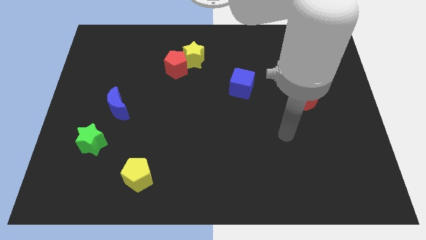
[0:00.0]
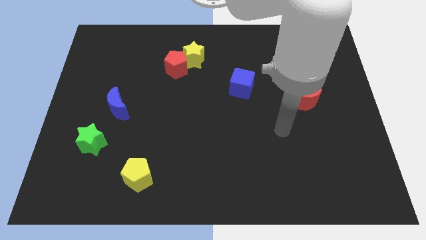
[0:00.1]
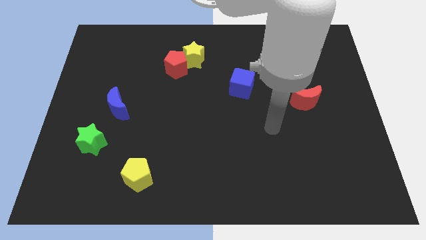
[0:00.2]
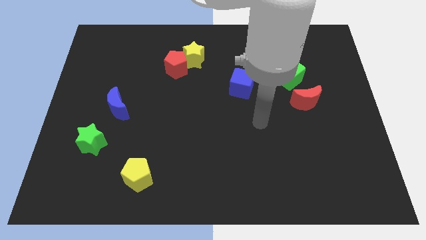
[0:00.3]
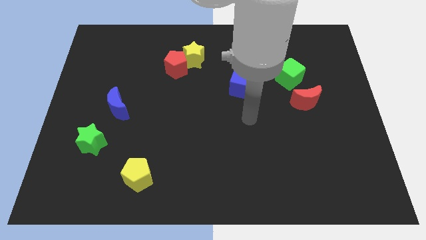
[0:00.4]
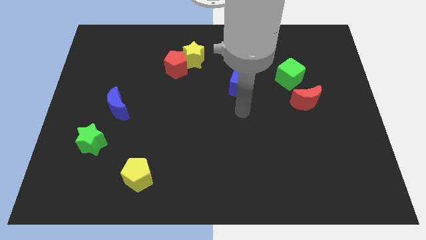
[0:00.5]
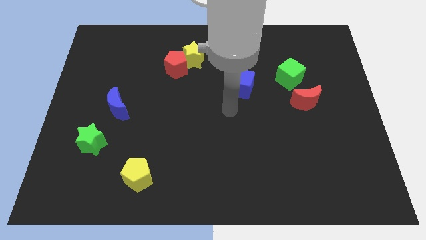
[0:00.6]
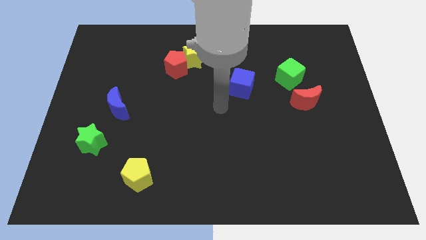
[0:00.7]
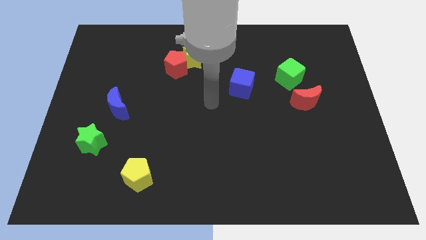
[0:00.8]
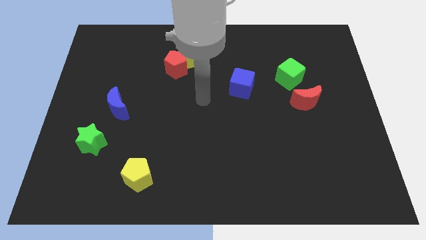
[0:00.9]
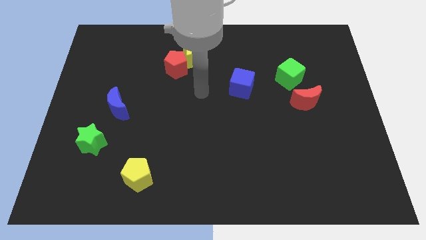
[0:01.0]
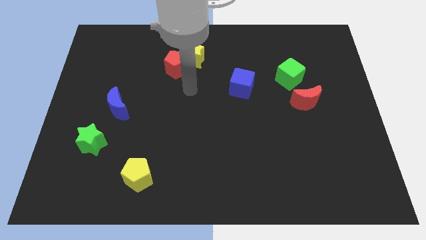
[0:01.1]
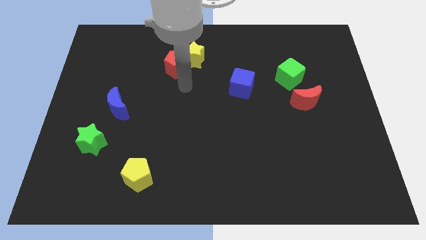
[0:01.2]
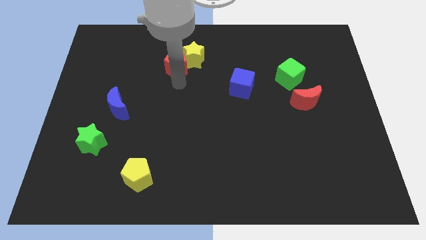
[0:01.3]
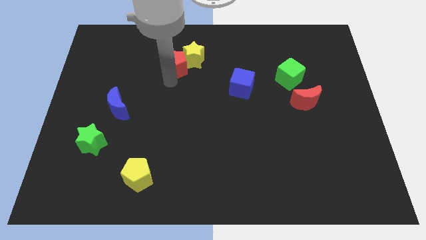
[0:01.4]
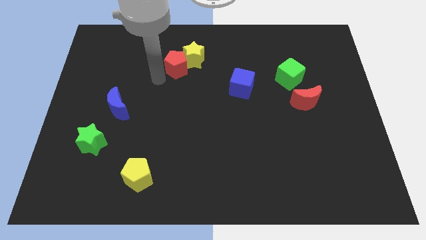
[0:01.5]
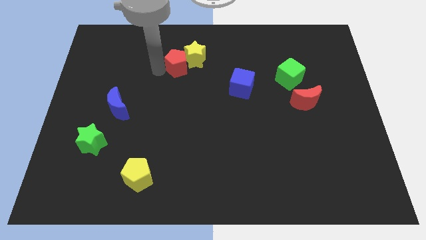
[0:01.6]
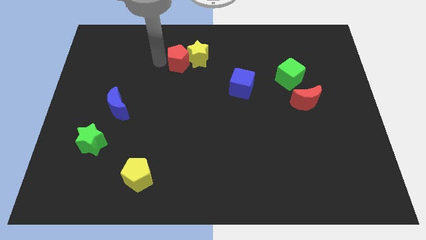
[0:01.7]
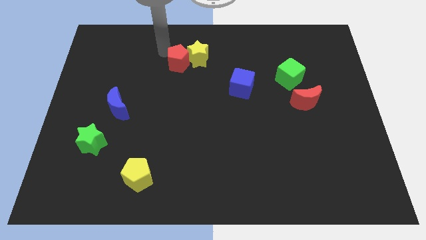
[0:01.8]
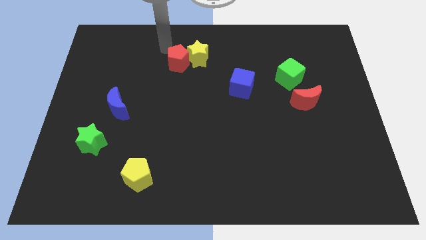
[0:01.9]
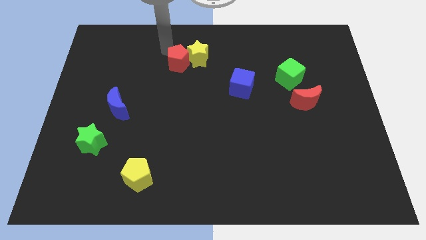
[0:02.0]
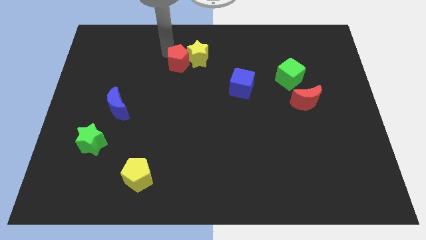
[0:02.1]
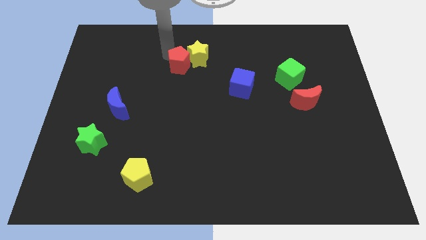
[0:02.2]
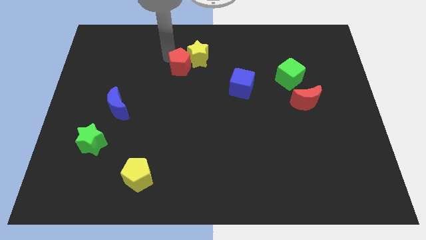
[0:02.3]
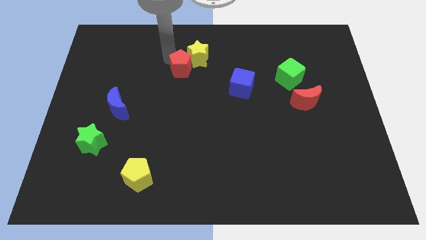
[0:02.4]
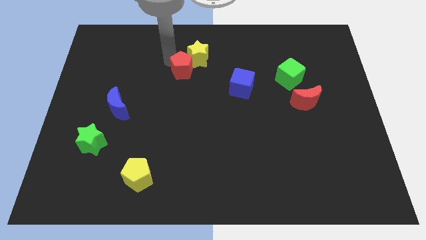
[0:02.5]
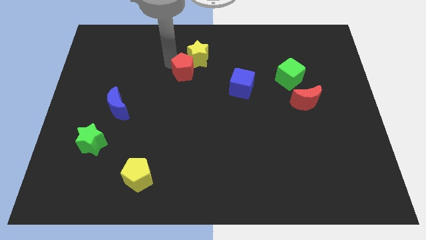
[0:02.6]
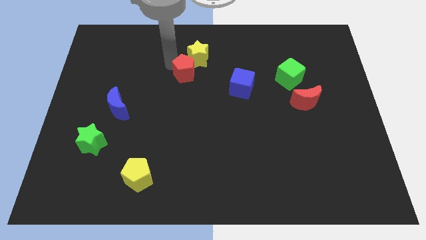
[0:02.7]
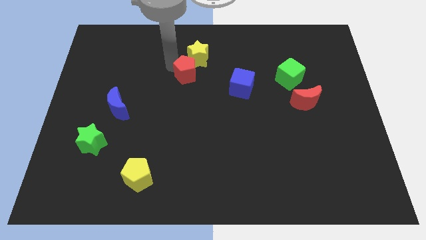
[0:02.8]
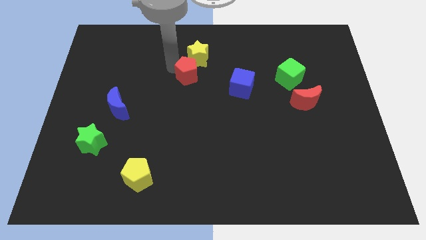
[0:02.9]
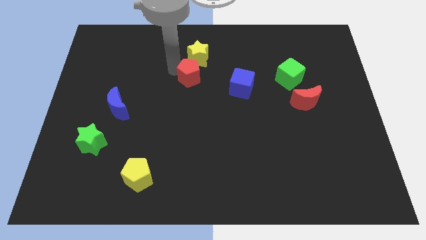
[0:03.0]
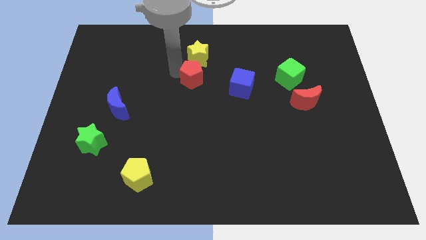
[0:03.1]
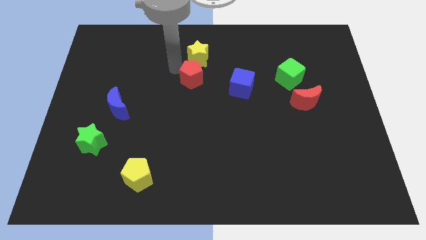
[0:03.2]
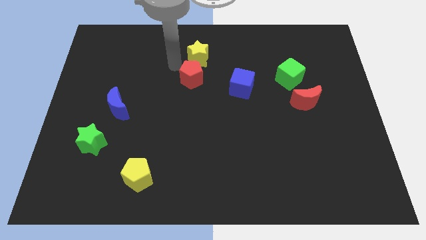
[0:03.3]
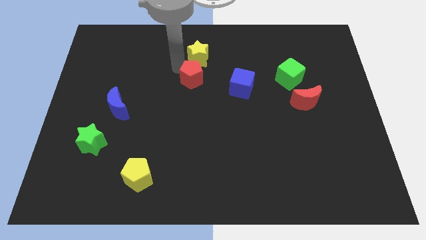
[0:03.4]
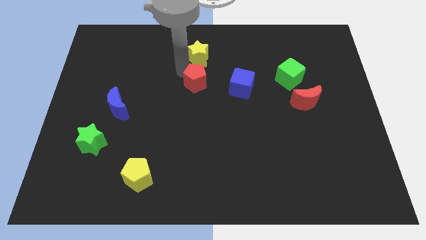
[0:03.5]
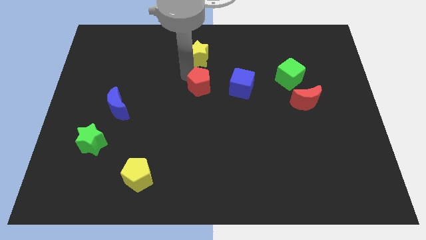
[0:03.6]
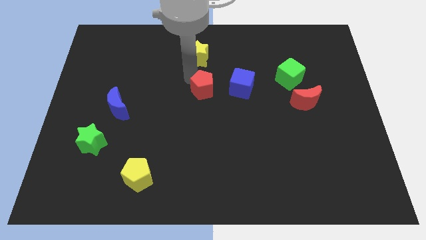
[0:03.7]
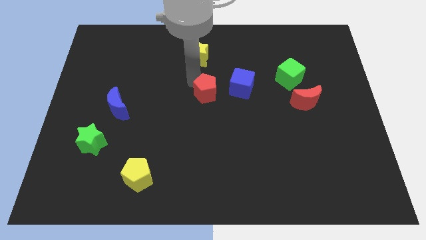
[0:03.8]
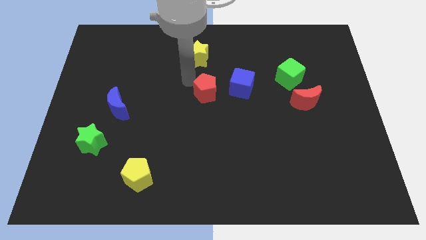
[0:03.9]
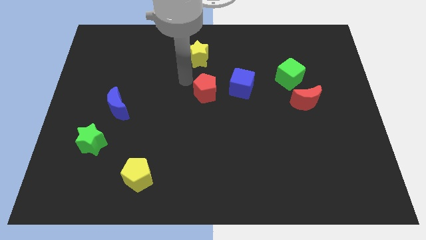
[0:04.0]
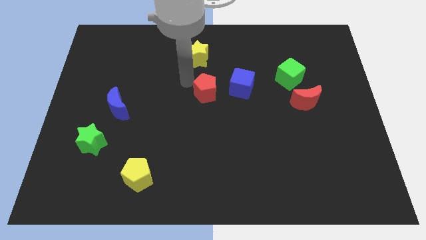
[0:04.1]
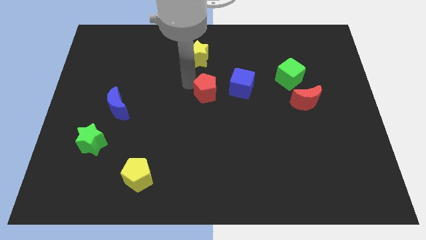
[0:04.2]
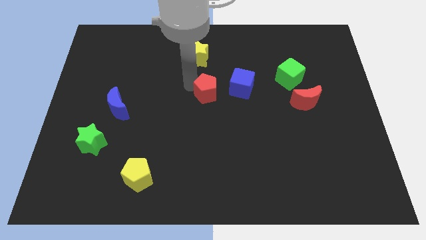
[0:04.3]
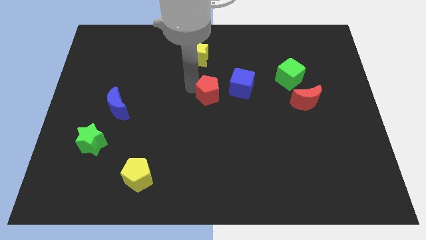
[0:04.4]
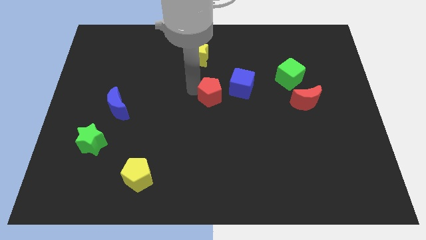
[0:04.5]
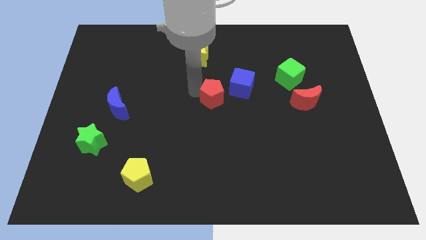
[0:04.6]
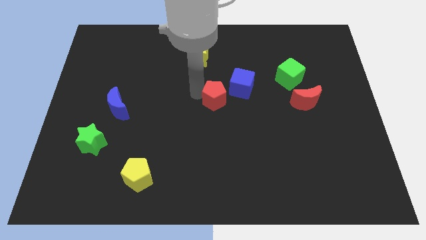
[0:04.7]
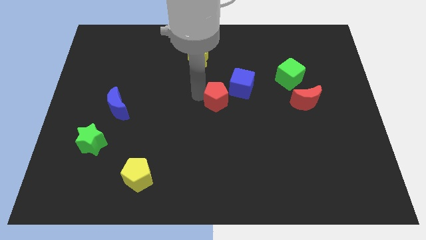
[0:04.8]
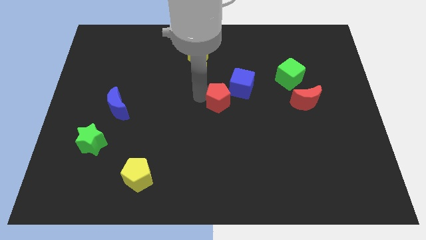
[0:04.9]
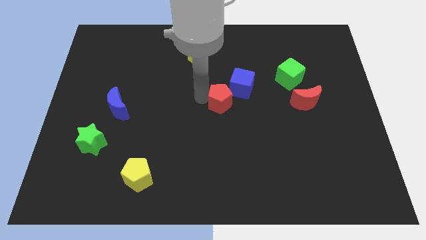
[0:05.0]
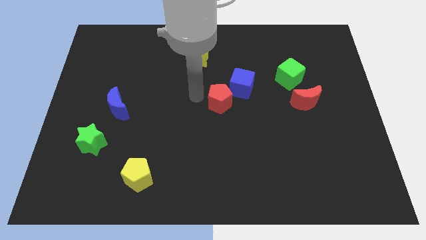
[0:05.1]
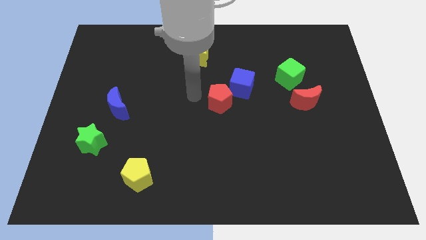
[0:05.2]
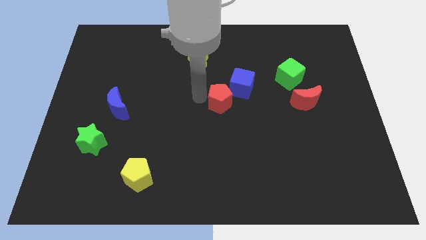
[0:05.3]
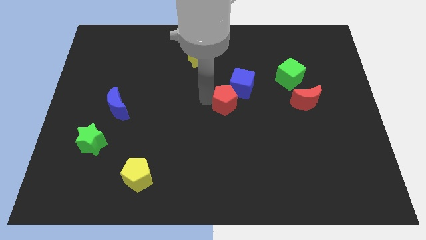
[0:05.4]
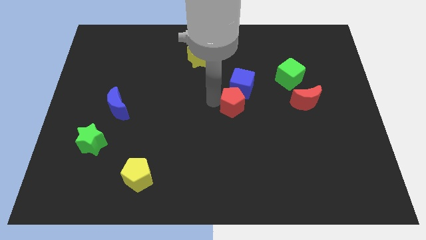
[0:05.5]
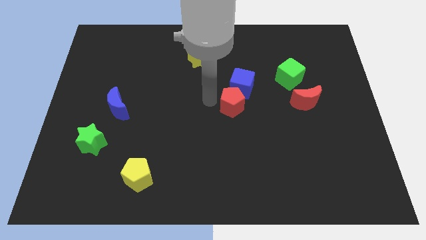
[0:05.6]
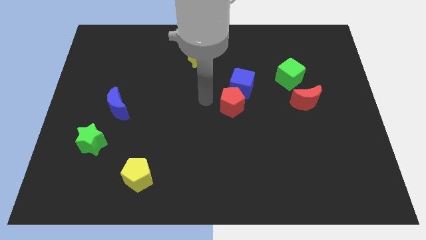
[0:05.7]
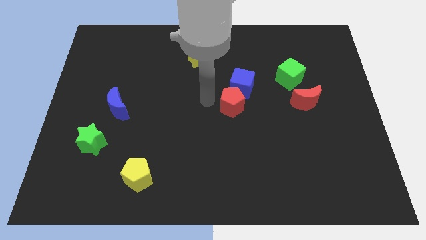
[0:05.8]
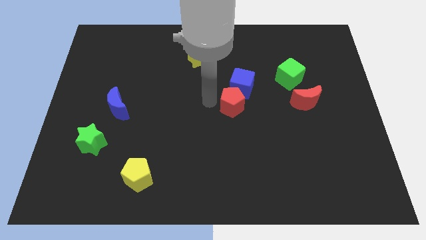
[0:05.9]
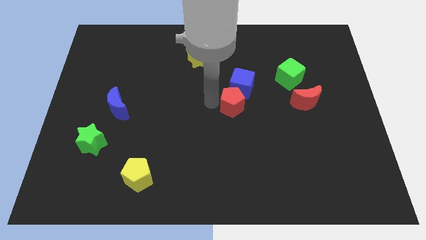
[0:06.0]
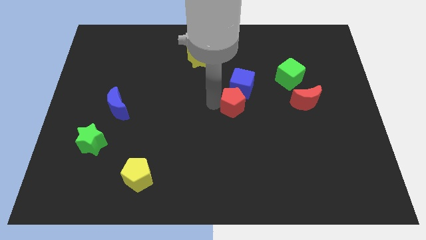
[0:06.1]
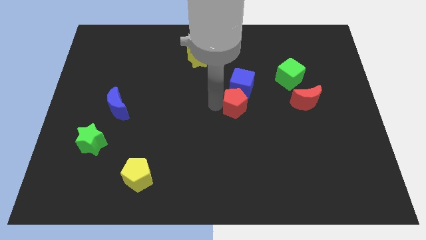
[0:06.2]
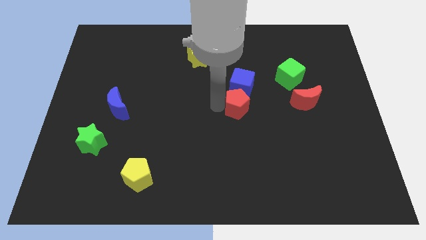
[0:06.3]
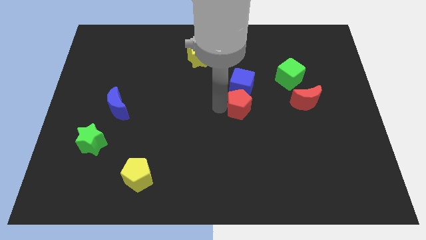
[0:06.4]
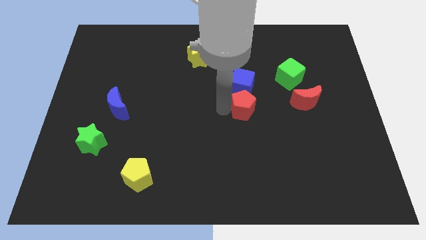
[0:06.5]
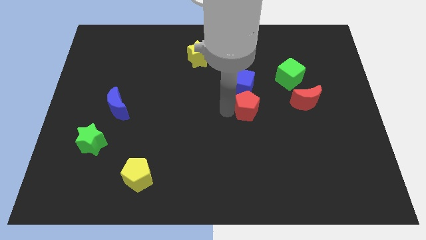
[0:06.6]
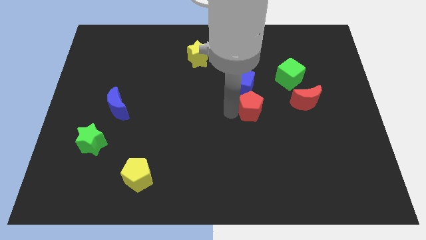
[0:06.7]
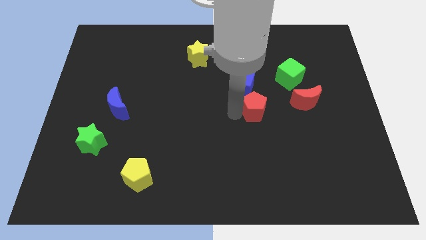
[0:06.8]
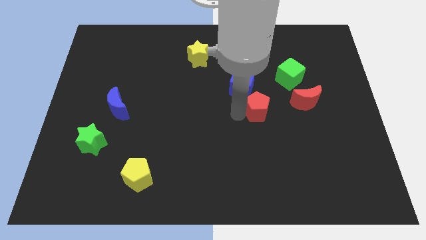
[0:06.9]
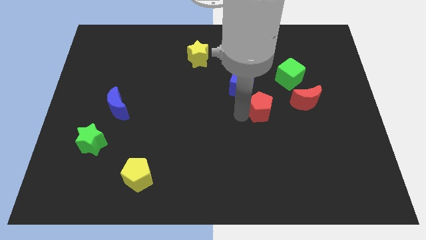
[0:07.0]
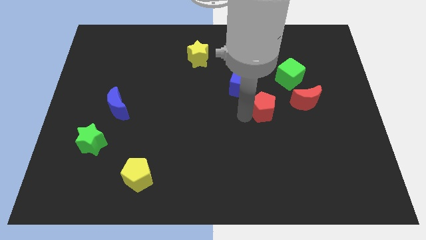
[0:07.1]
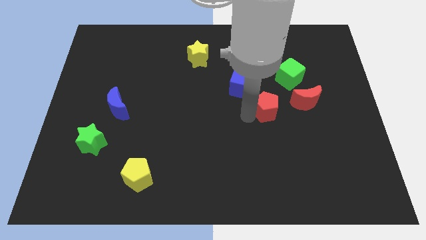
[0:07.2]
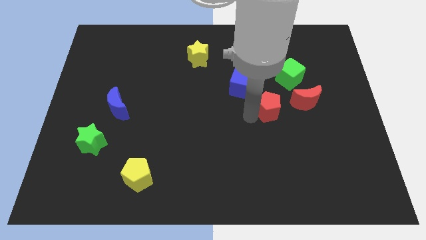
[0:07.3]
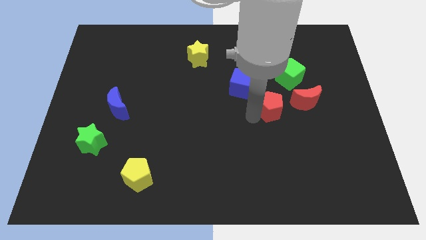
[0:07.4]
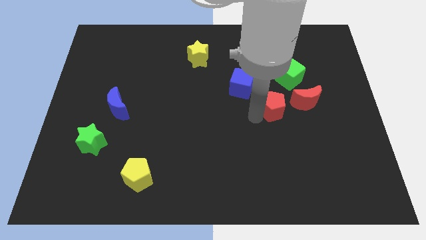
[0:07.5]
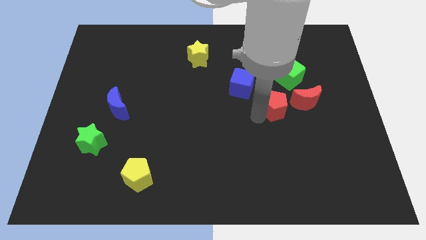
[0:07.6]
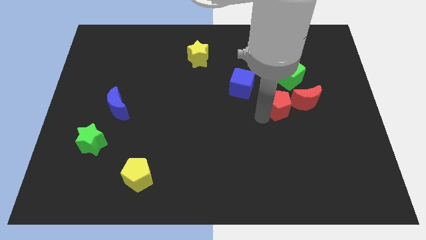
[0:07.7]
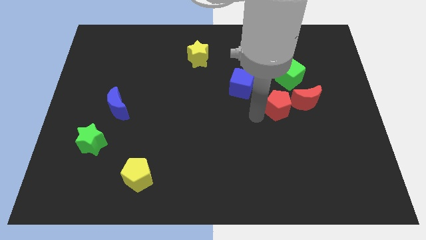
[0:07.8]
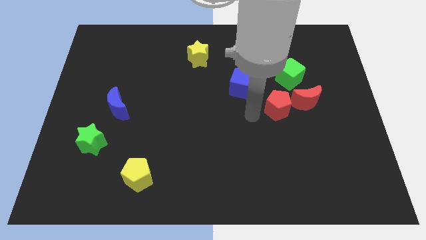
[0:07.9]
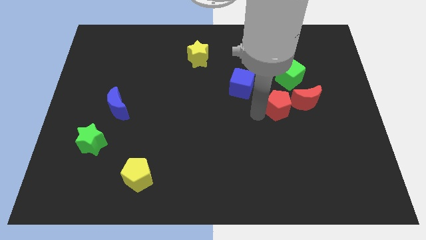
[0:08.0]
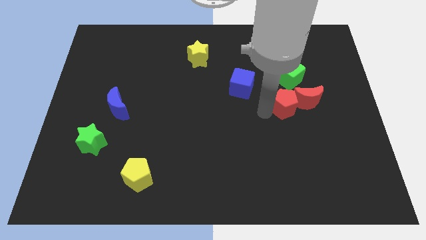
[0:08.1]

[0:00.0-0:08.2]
put the red pentagon next to the red moon
